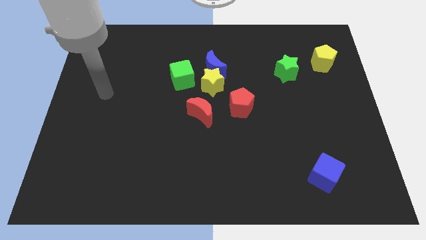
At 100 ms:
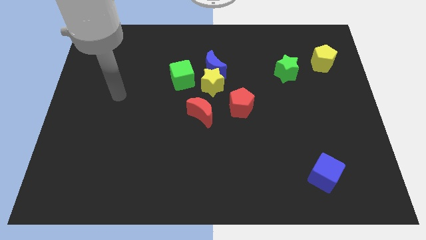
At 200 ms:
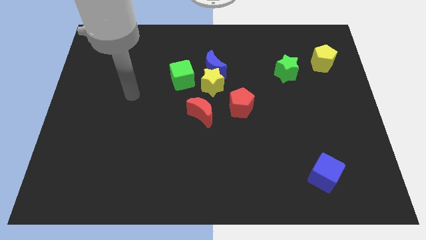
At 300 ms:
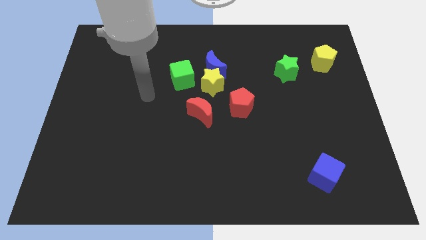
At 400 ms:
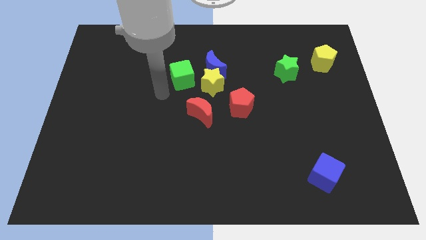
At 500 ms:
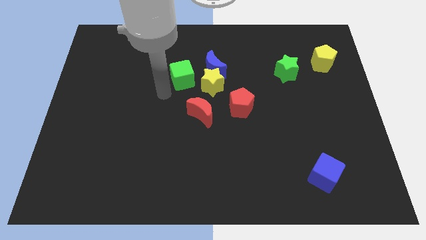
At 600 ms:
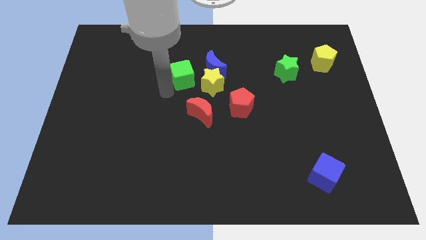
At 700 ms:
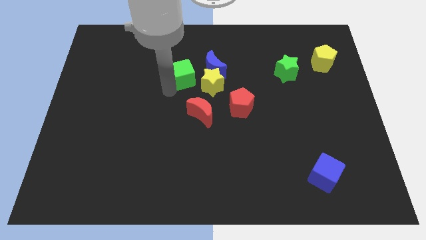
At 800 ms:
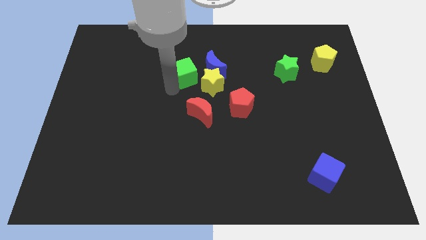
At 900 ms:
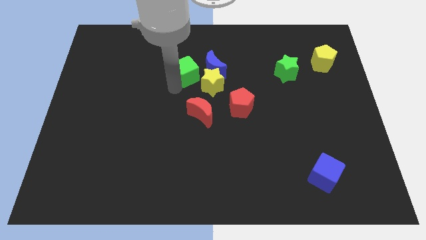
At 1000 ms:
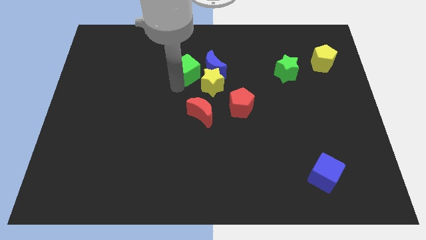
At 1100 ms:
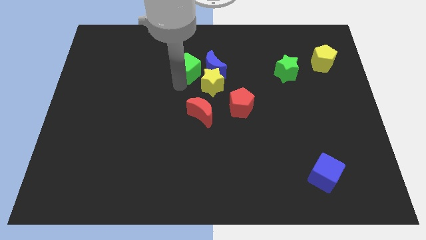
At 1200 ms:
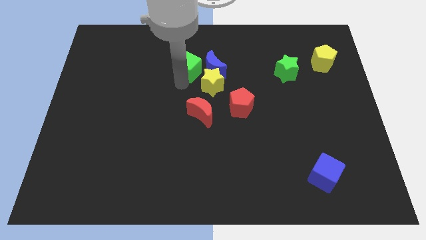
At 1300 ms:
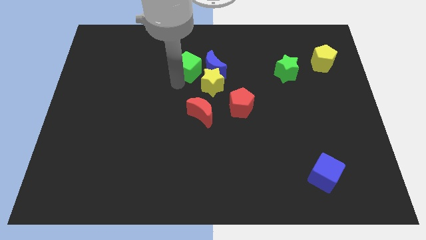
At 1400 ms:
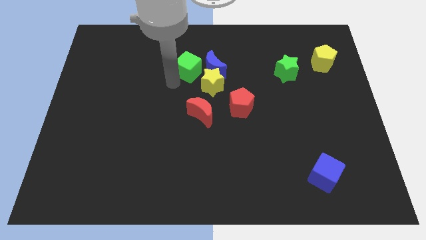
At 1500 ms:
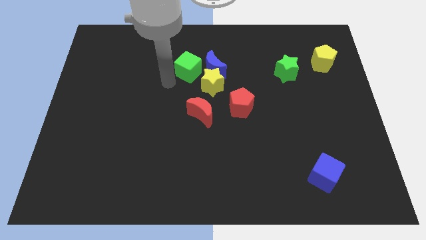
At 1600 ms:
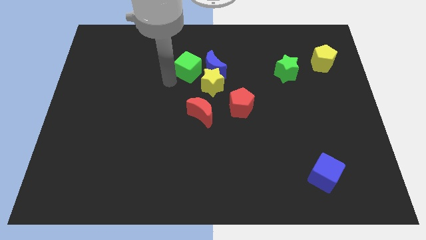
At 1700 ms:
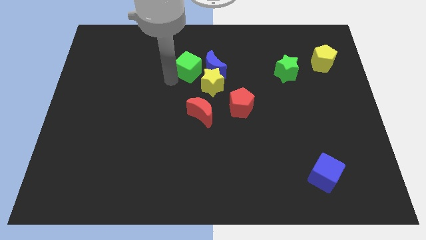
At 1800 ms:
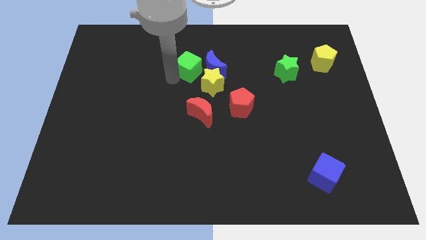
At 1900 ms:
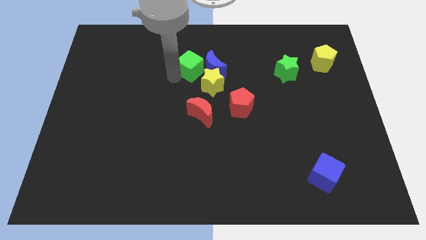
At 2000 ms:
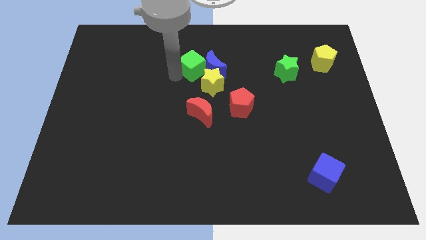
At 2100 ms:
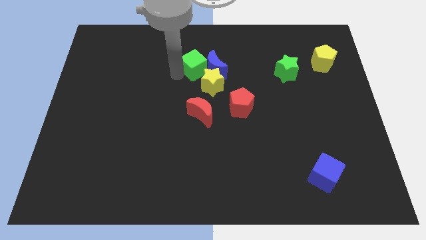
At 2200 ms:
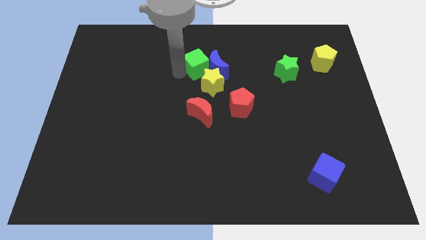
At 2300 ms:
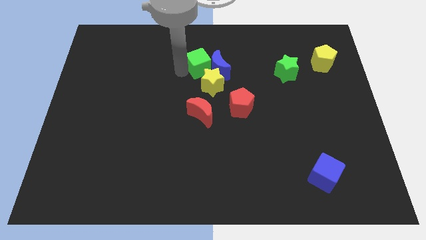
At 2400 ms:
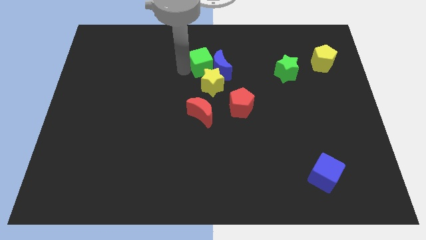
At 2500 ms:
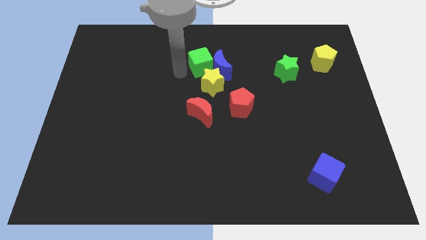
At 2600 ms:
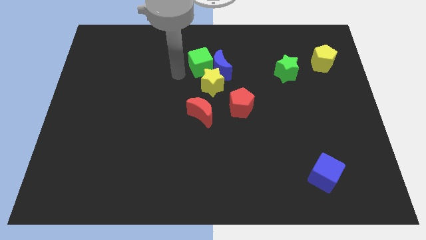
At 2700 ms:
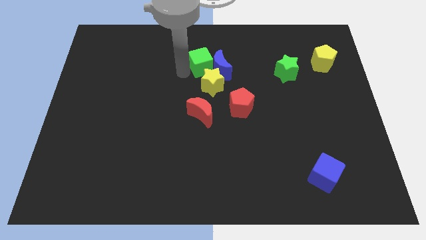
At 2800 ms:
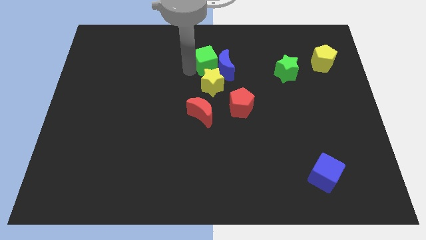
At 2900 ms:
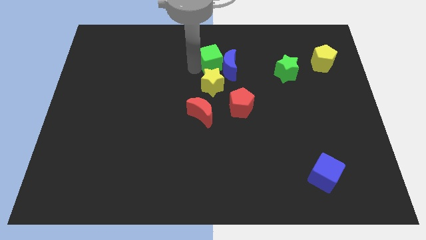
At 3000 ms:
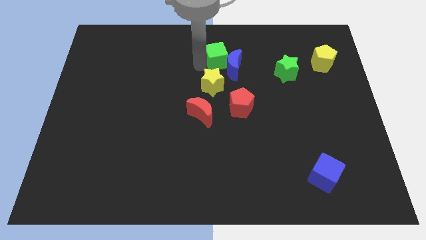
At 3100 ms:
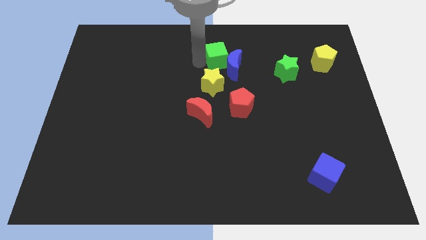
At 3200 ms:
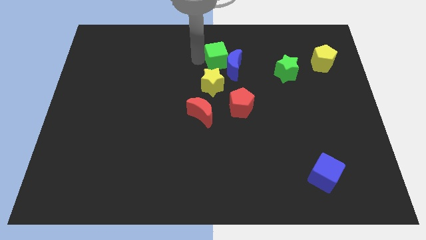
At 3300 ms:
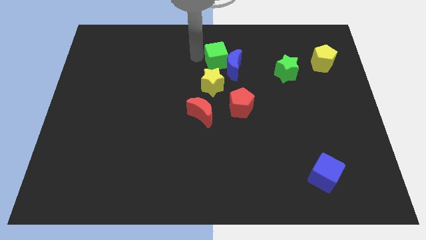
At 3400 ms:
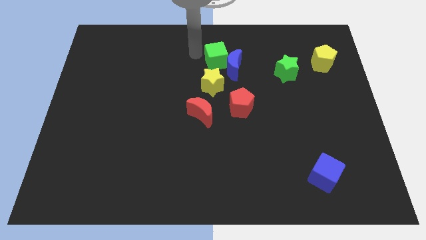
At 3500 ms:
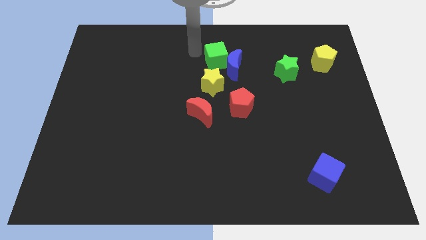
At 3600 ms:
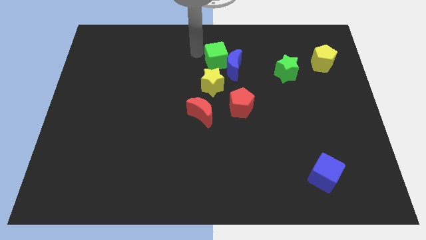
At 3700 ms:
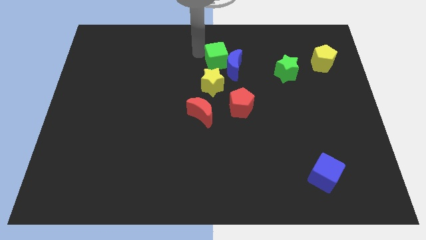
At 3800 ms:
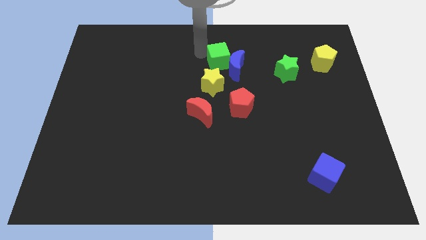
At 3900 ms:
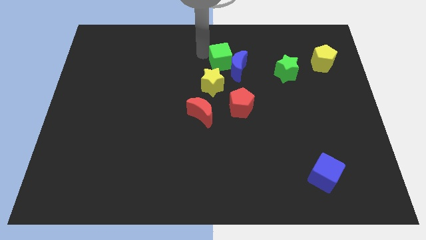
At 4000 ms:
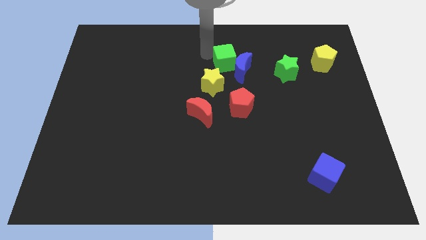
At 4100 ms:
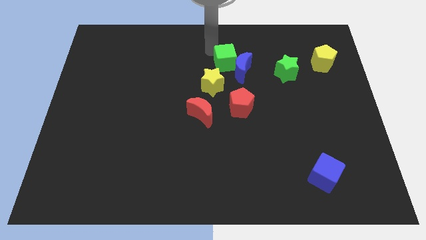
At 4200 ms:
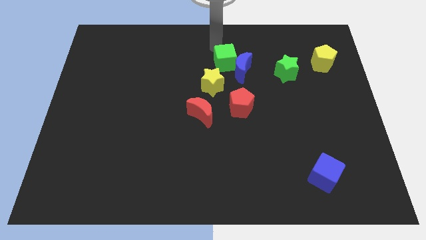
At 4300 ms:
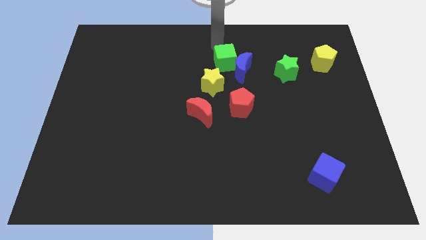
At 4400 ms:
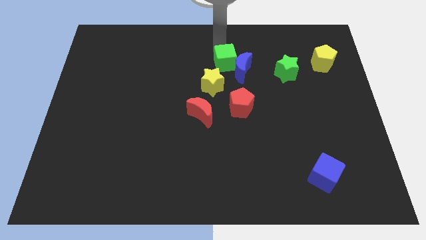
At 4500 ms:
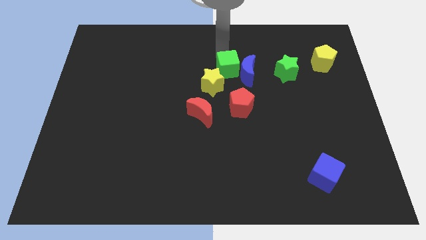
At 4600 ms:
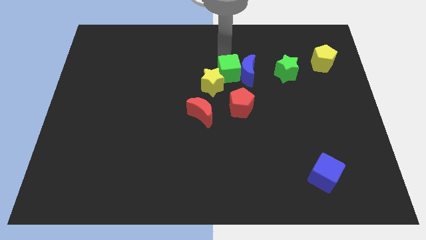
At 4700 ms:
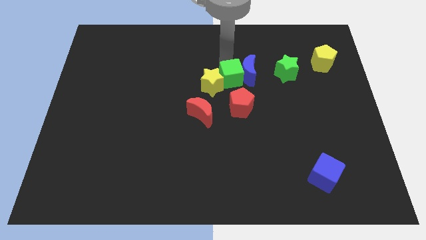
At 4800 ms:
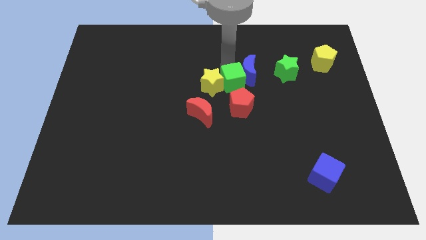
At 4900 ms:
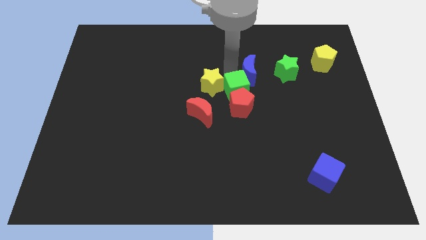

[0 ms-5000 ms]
slide the green cube towards the red pentagon

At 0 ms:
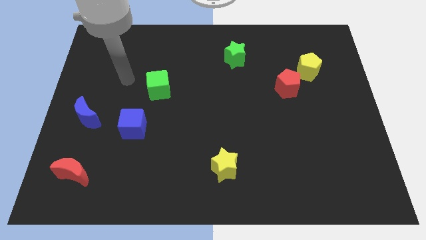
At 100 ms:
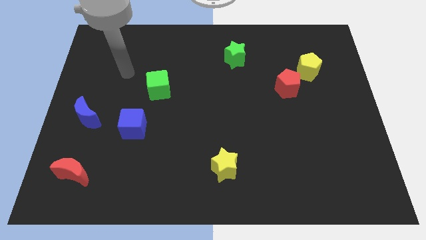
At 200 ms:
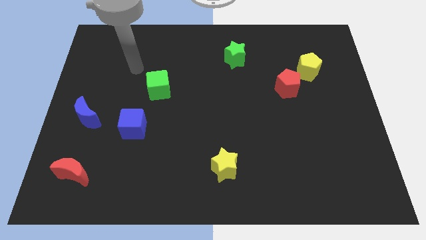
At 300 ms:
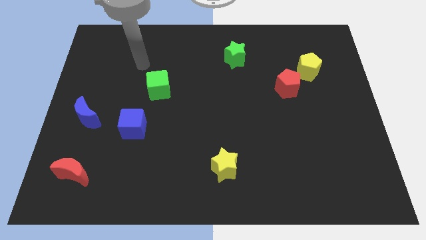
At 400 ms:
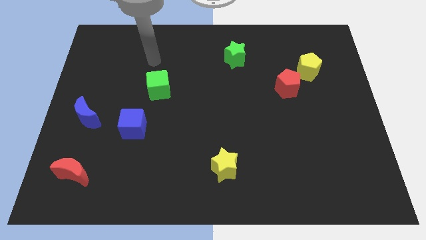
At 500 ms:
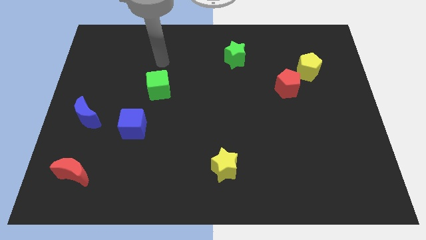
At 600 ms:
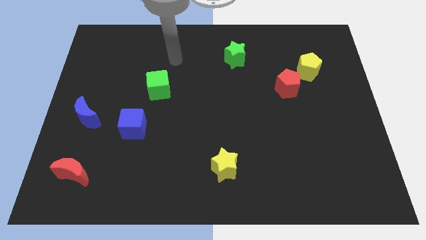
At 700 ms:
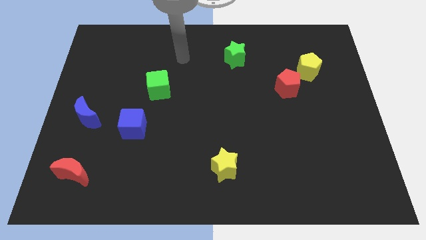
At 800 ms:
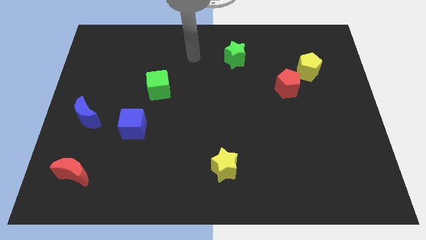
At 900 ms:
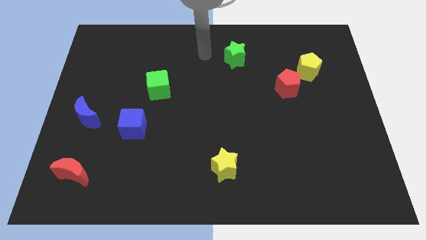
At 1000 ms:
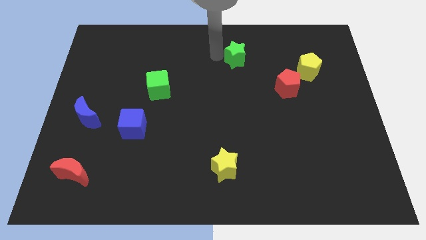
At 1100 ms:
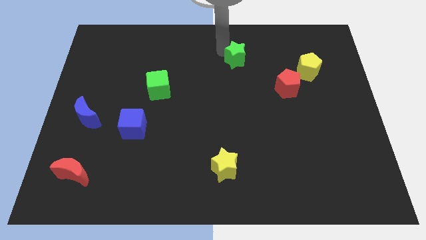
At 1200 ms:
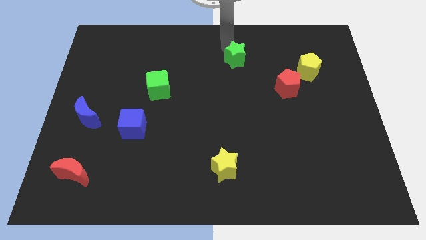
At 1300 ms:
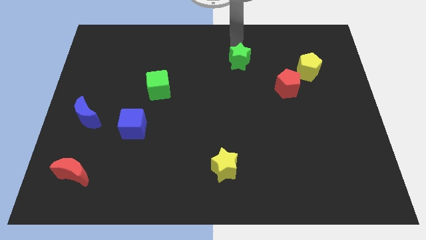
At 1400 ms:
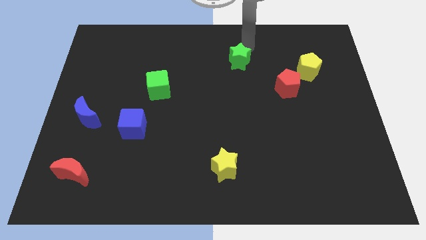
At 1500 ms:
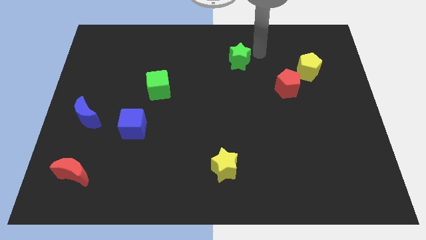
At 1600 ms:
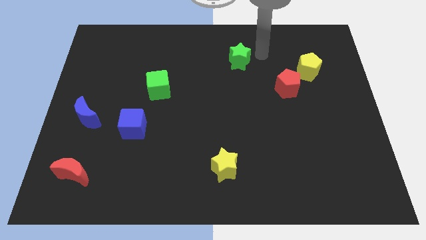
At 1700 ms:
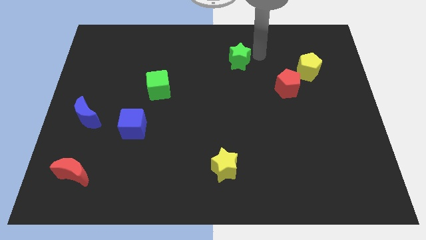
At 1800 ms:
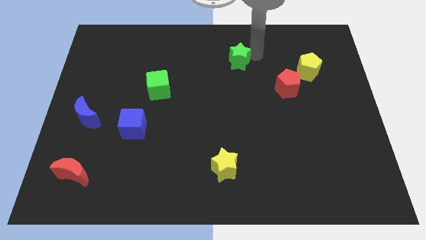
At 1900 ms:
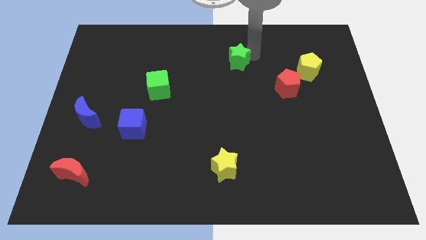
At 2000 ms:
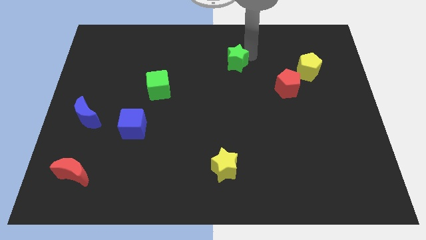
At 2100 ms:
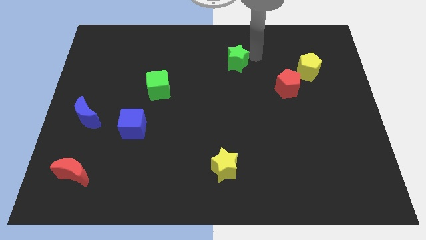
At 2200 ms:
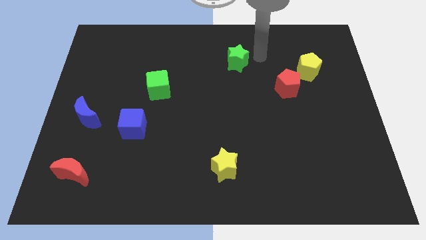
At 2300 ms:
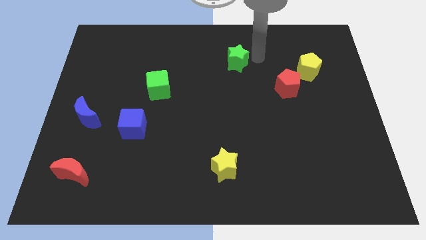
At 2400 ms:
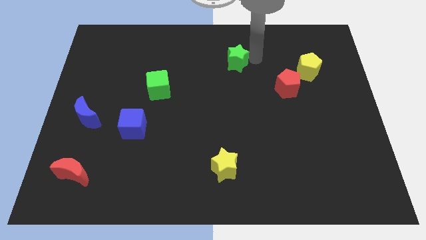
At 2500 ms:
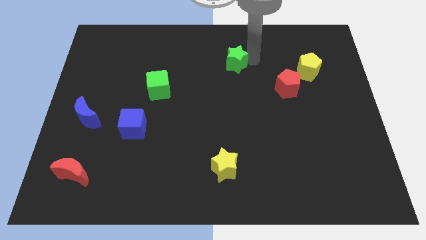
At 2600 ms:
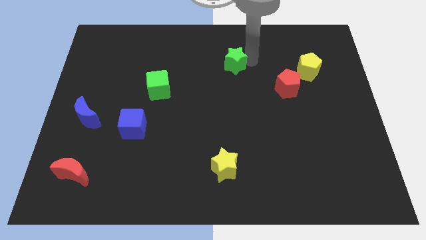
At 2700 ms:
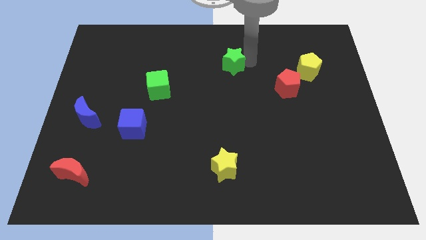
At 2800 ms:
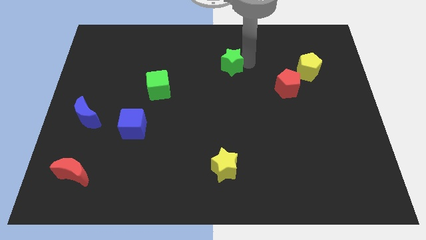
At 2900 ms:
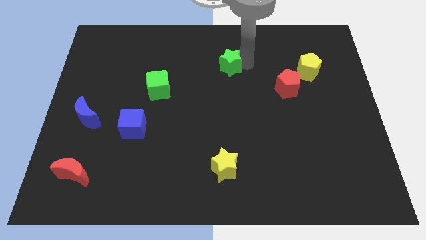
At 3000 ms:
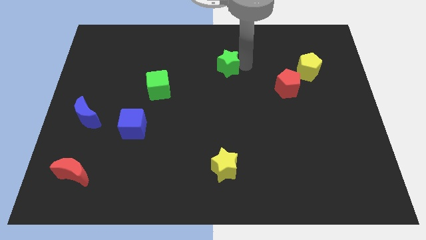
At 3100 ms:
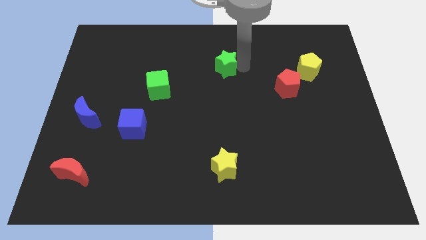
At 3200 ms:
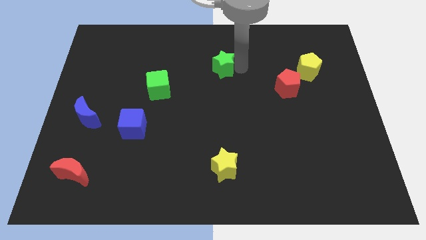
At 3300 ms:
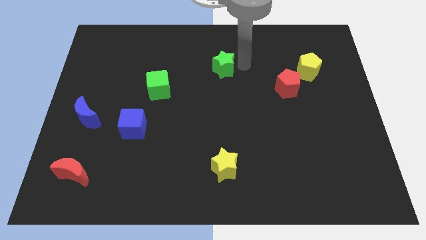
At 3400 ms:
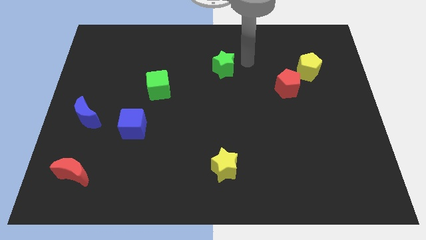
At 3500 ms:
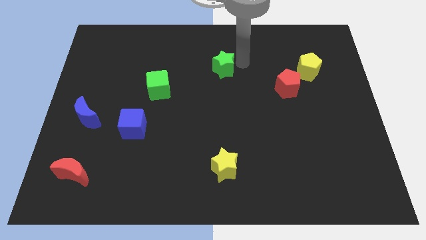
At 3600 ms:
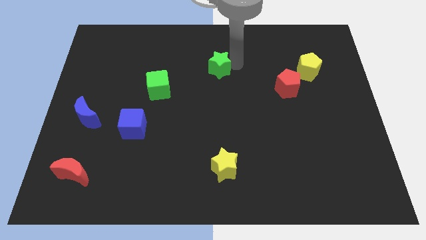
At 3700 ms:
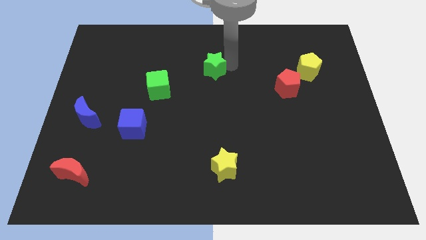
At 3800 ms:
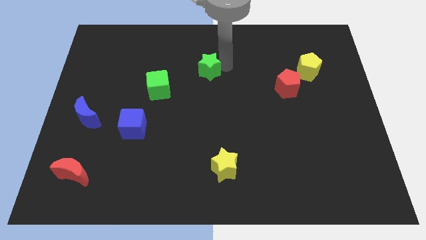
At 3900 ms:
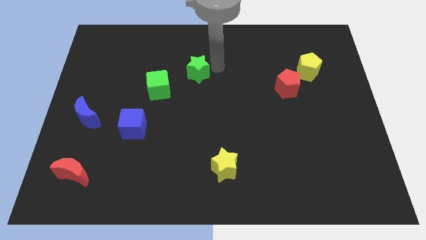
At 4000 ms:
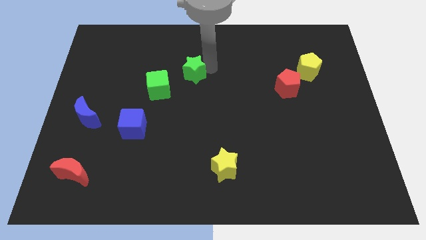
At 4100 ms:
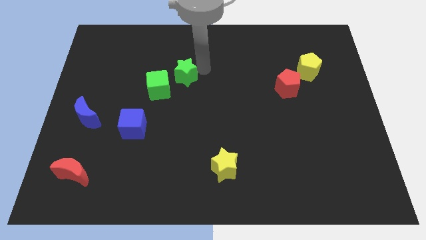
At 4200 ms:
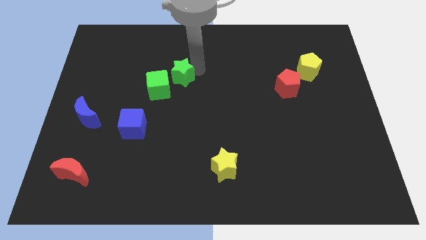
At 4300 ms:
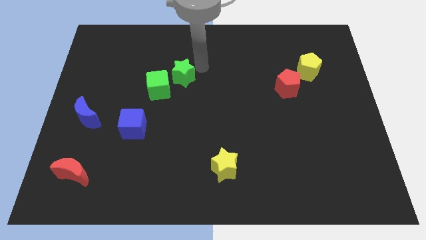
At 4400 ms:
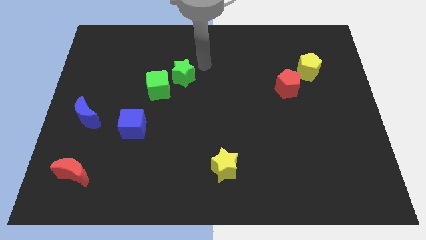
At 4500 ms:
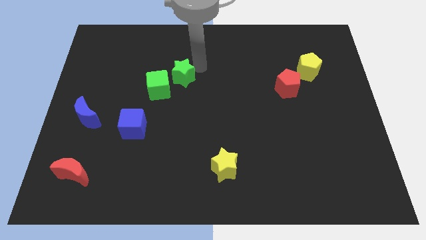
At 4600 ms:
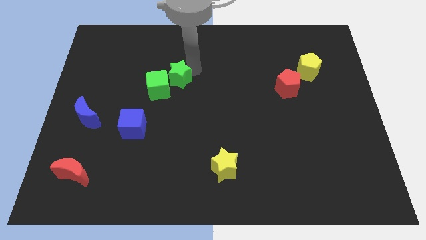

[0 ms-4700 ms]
put the green star next to the green cube
